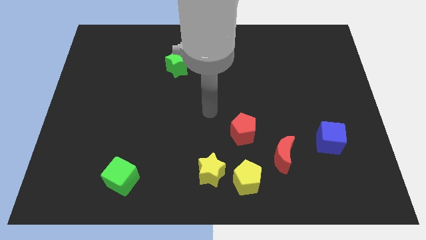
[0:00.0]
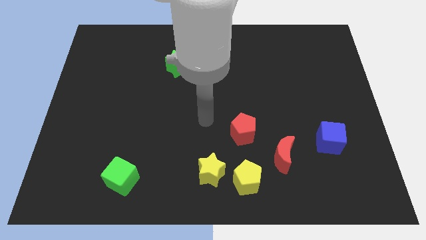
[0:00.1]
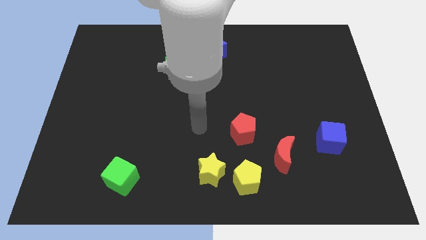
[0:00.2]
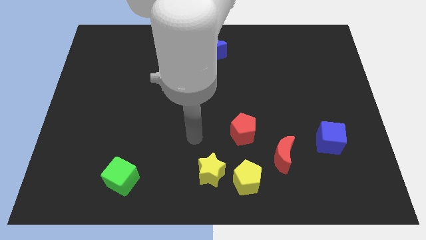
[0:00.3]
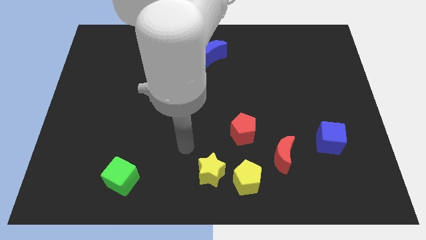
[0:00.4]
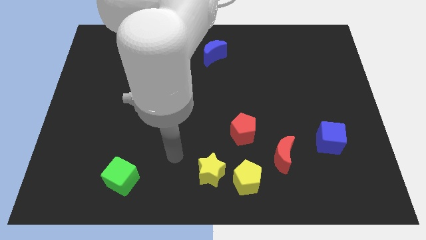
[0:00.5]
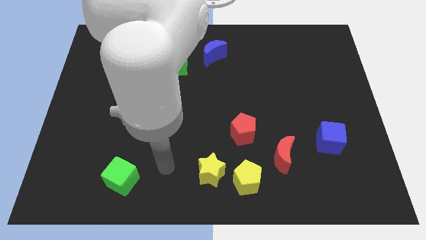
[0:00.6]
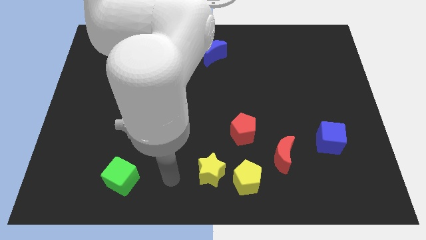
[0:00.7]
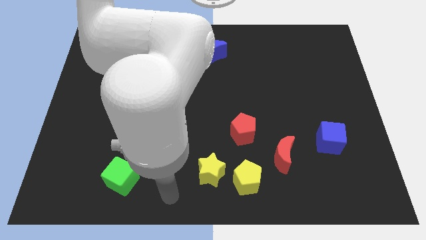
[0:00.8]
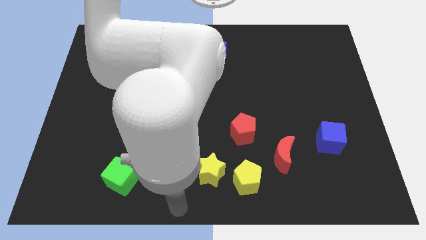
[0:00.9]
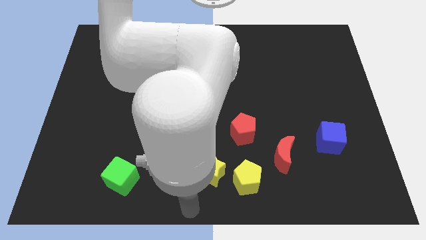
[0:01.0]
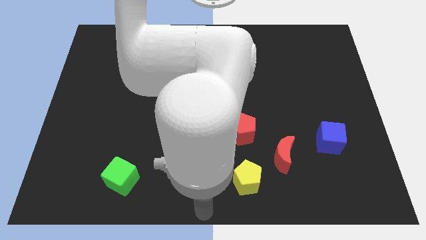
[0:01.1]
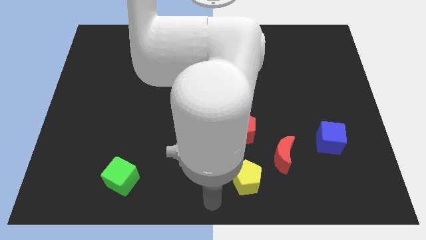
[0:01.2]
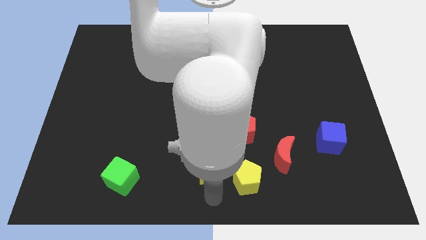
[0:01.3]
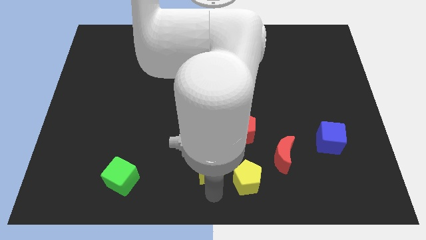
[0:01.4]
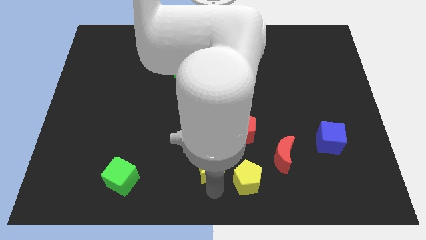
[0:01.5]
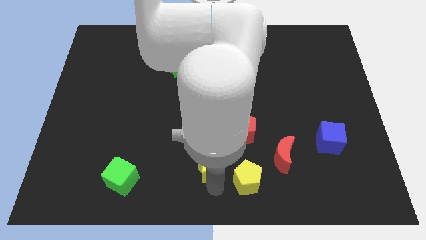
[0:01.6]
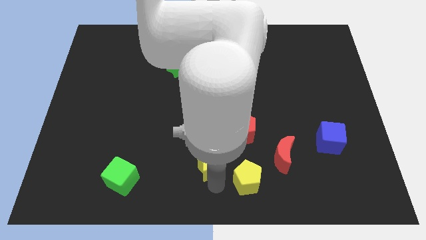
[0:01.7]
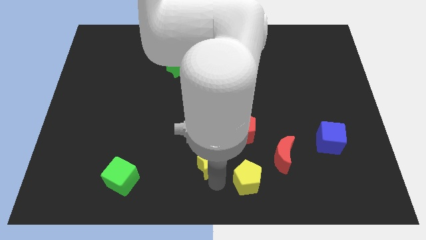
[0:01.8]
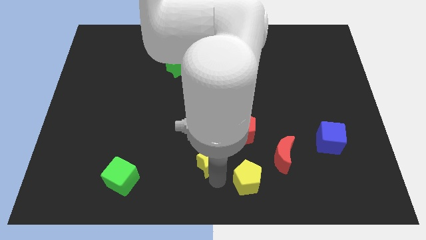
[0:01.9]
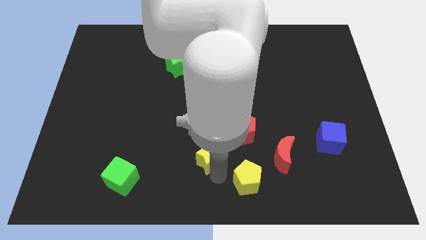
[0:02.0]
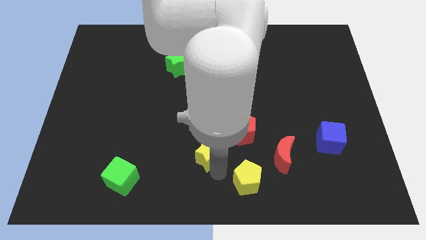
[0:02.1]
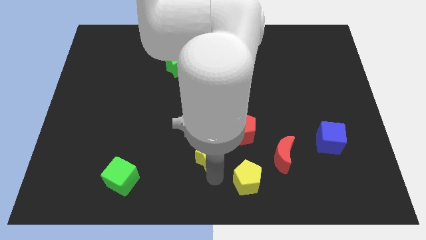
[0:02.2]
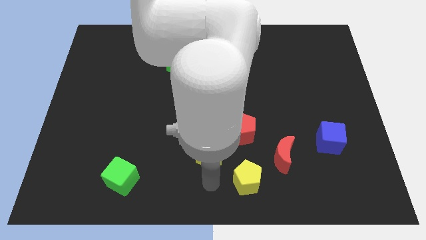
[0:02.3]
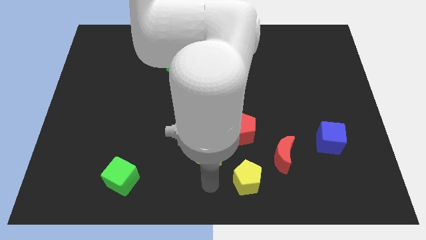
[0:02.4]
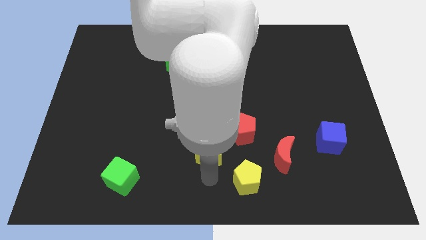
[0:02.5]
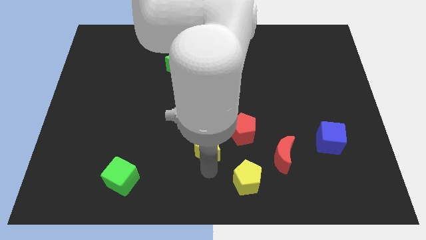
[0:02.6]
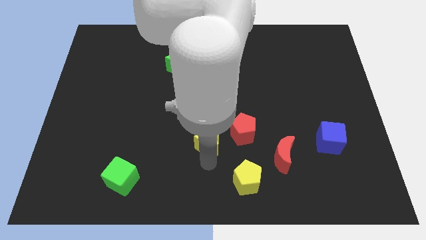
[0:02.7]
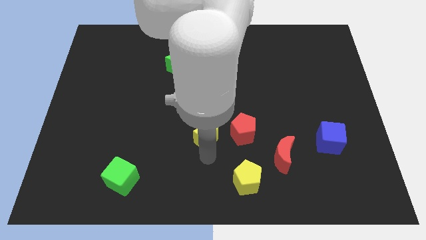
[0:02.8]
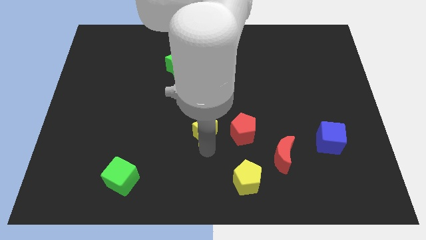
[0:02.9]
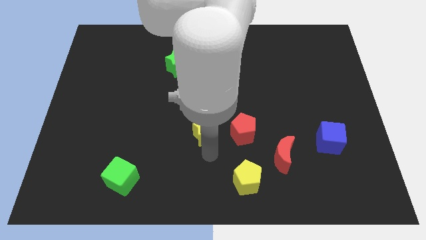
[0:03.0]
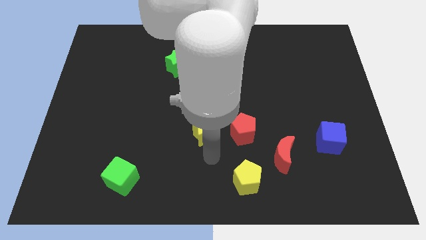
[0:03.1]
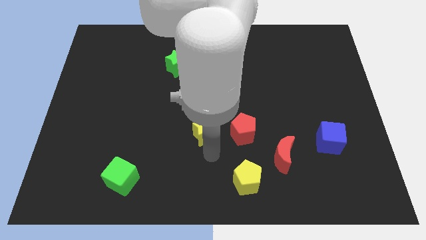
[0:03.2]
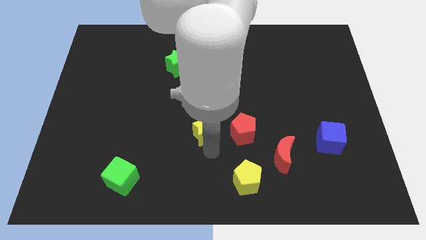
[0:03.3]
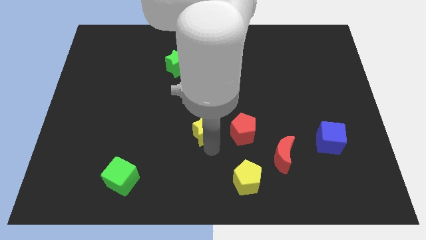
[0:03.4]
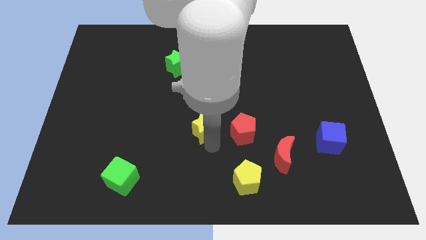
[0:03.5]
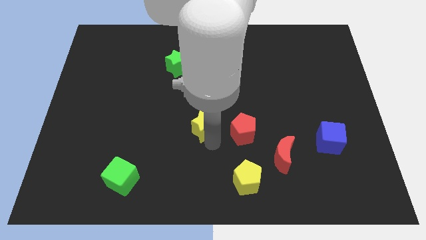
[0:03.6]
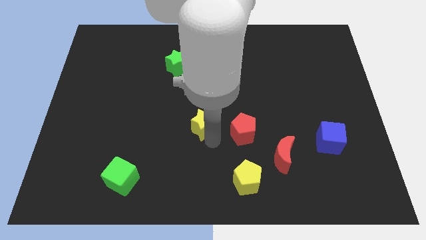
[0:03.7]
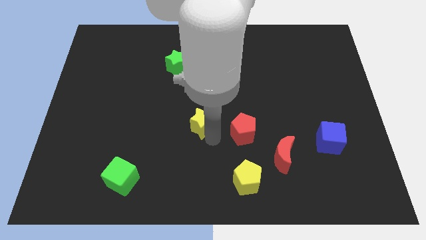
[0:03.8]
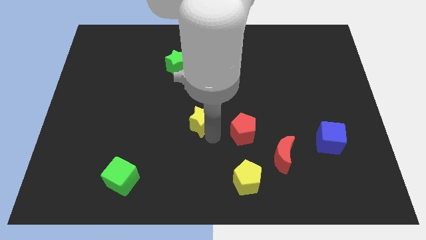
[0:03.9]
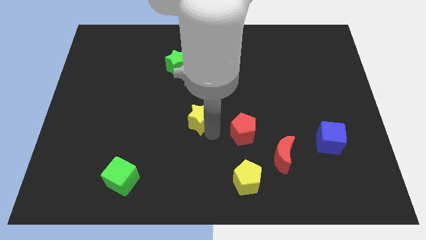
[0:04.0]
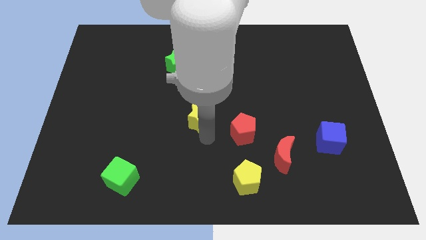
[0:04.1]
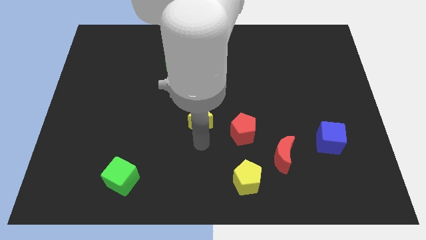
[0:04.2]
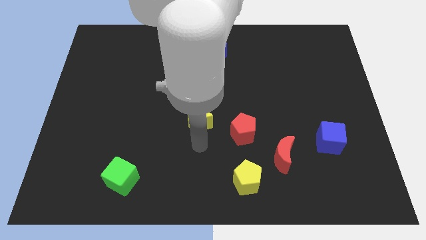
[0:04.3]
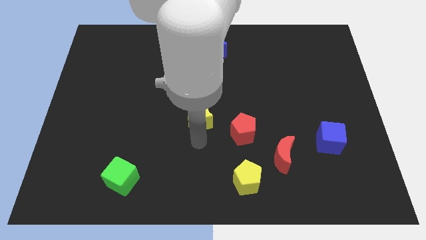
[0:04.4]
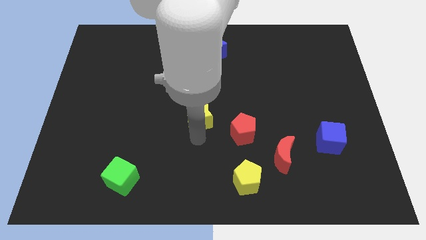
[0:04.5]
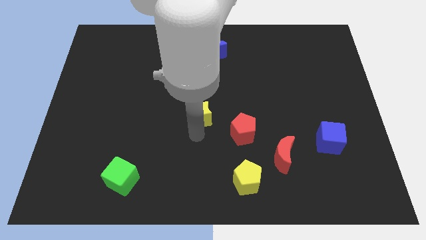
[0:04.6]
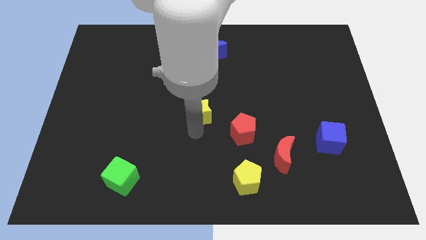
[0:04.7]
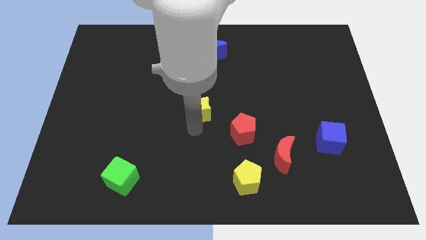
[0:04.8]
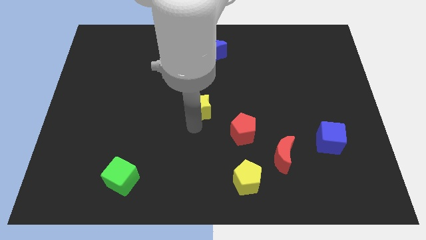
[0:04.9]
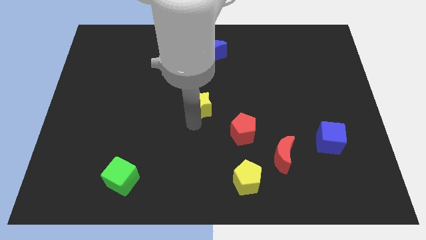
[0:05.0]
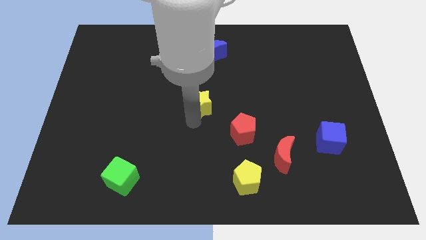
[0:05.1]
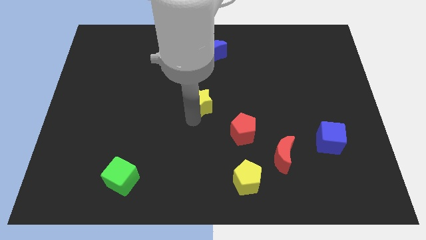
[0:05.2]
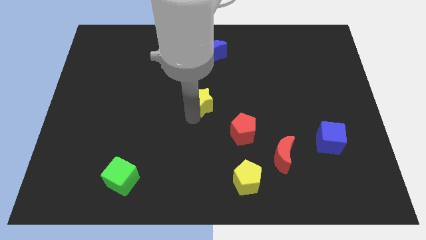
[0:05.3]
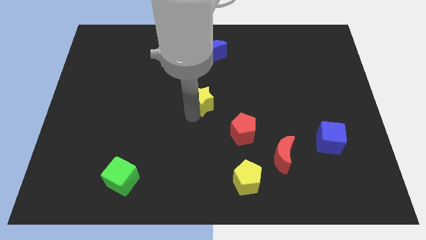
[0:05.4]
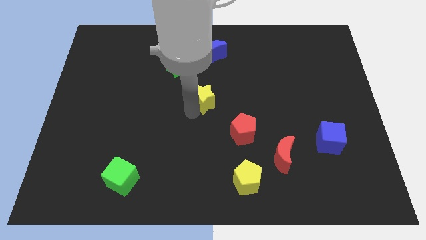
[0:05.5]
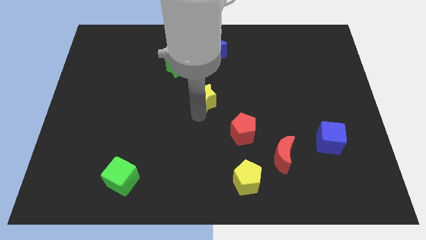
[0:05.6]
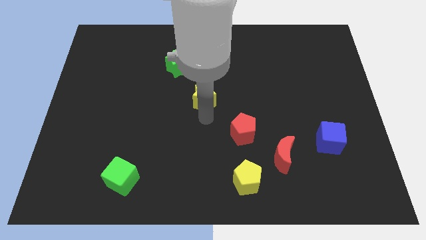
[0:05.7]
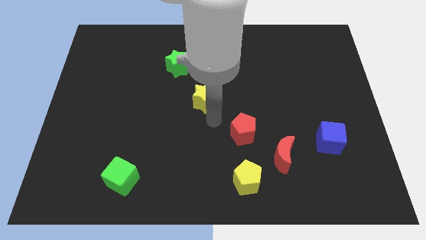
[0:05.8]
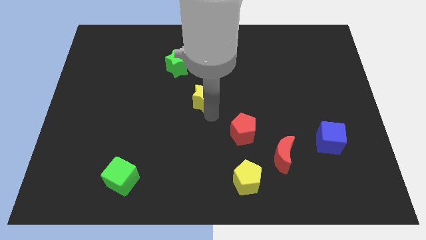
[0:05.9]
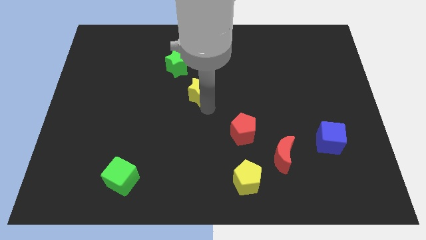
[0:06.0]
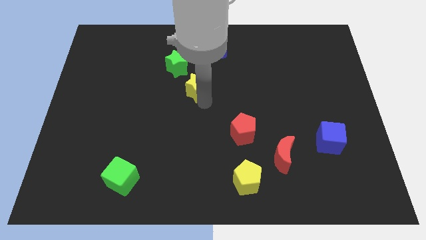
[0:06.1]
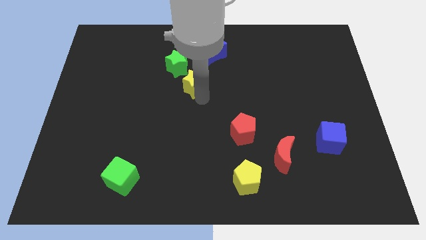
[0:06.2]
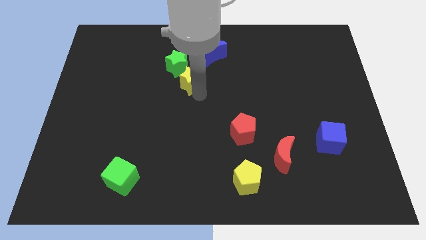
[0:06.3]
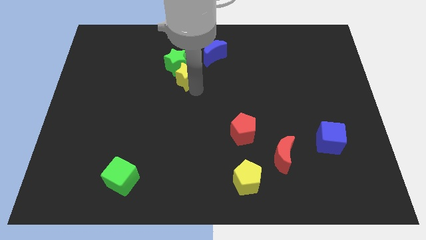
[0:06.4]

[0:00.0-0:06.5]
push the yellow star to the green star

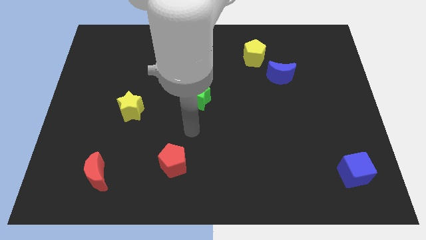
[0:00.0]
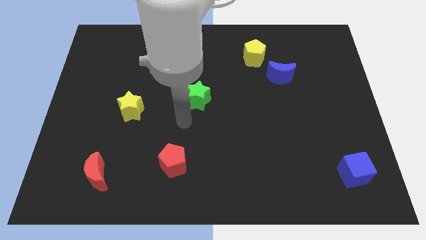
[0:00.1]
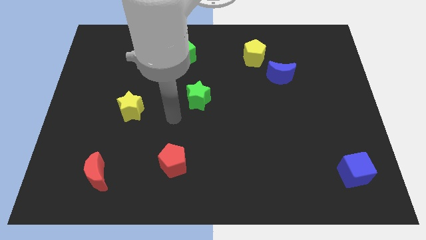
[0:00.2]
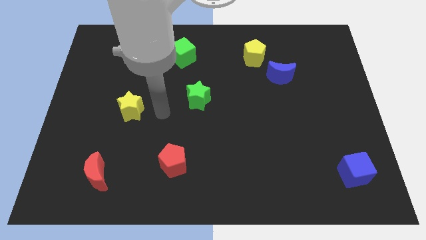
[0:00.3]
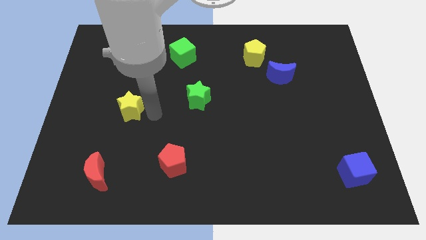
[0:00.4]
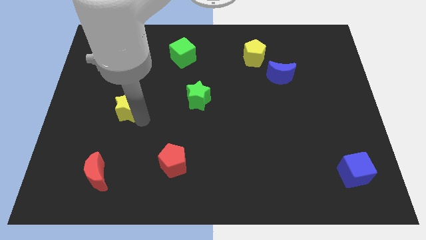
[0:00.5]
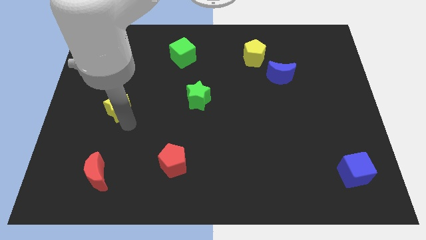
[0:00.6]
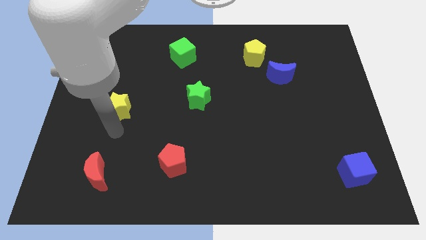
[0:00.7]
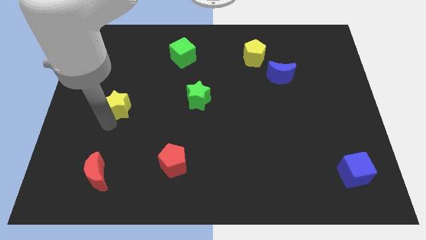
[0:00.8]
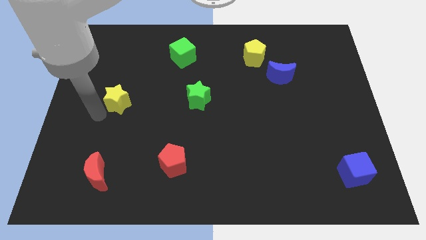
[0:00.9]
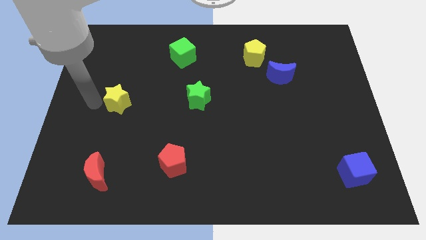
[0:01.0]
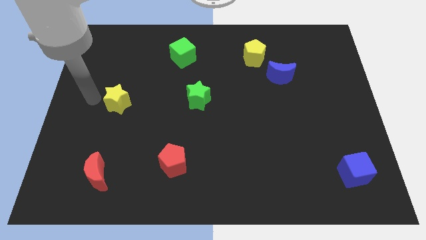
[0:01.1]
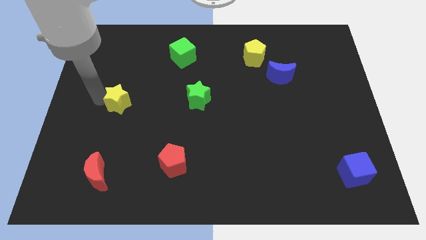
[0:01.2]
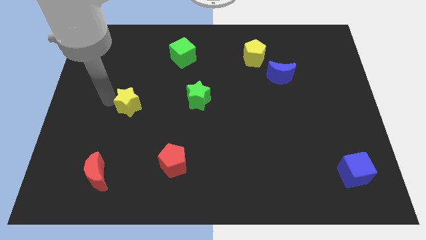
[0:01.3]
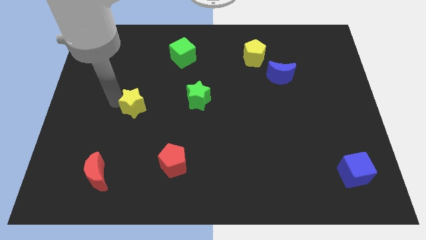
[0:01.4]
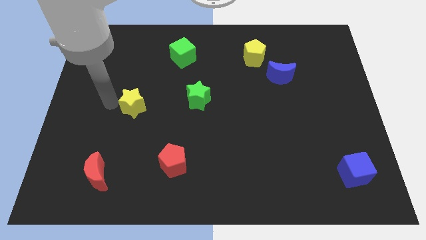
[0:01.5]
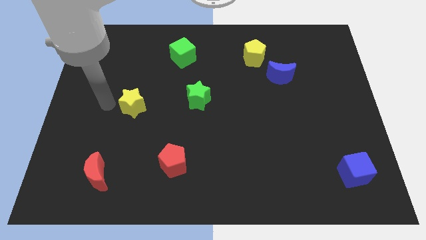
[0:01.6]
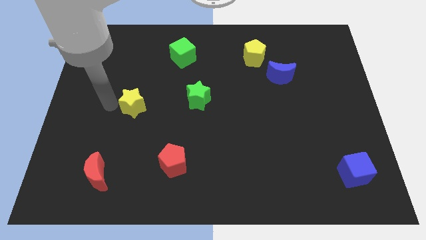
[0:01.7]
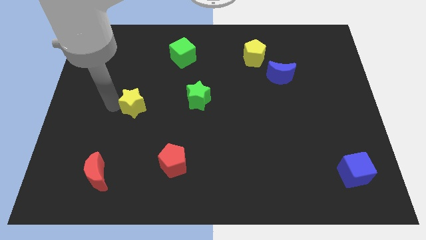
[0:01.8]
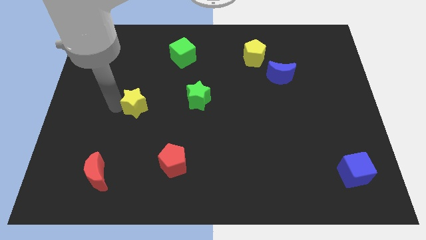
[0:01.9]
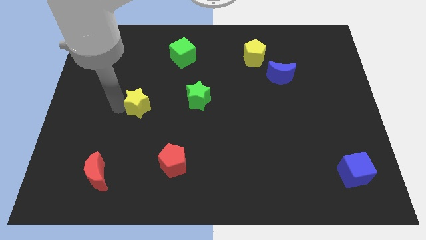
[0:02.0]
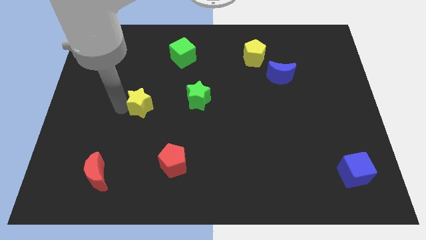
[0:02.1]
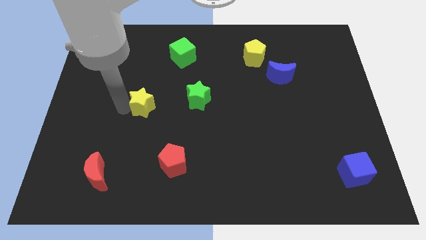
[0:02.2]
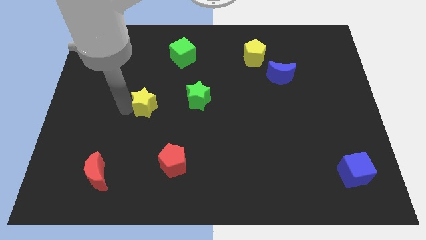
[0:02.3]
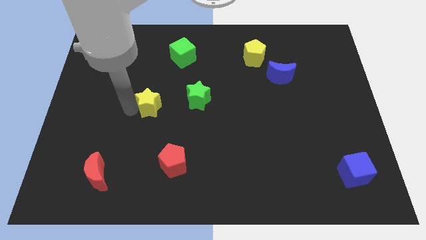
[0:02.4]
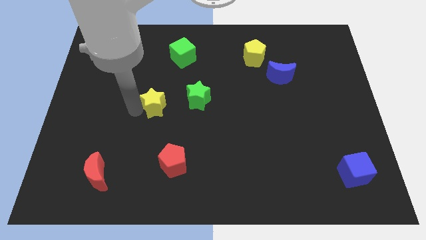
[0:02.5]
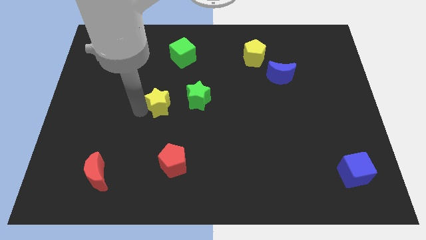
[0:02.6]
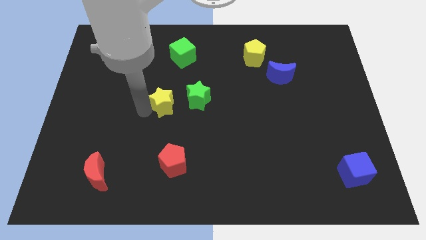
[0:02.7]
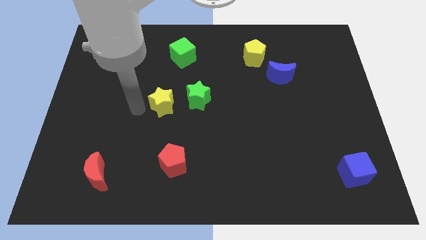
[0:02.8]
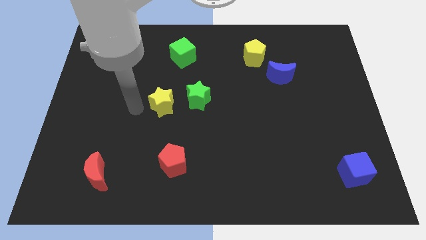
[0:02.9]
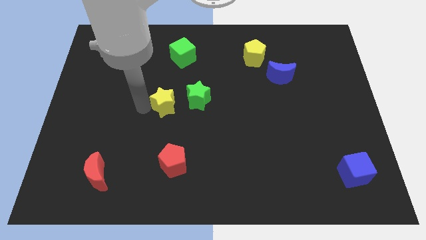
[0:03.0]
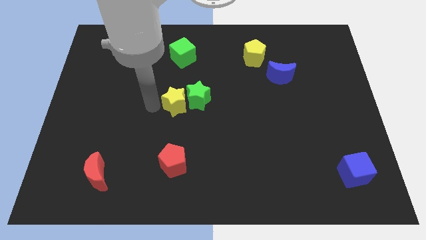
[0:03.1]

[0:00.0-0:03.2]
push the yellow star next to the green star
